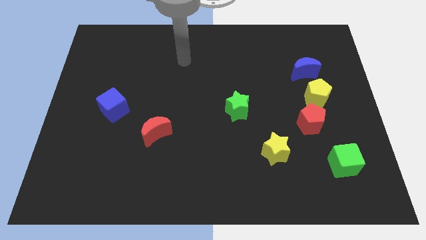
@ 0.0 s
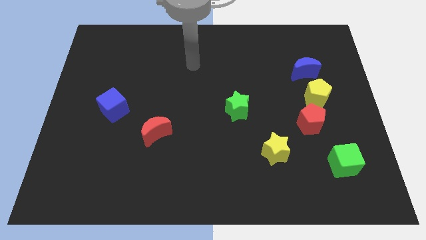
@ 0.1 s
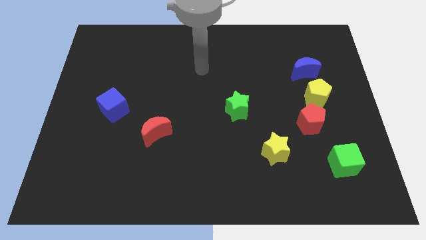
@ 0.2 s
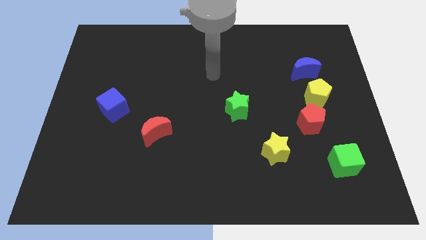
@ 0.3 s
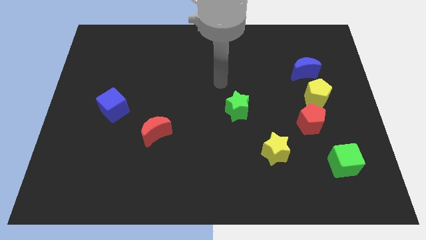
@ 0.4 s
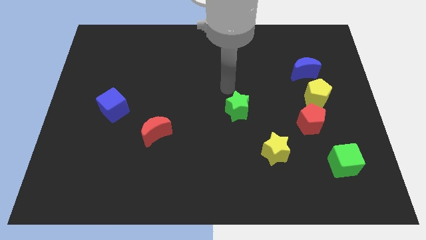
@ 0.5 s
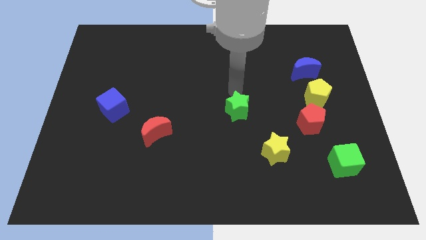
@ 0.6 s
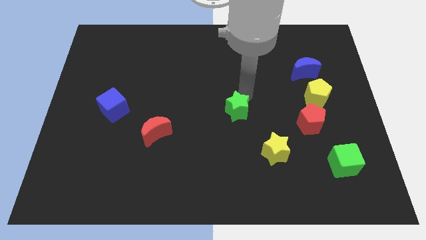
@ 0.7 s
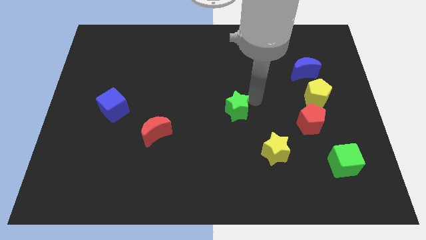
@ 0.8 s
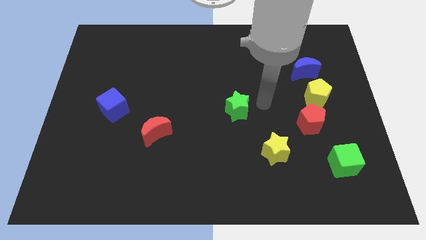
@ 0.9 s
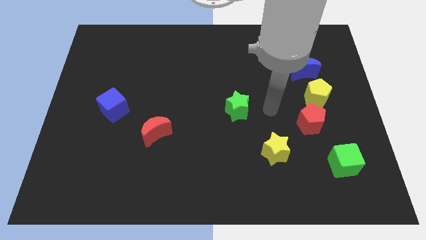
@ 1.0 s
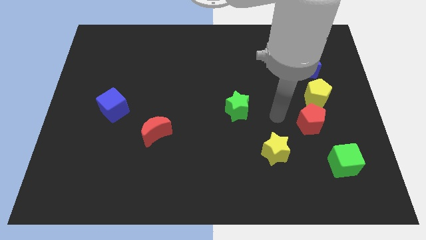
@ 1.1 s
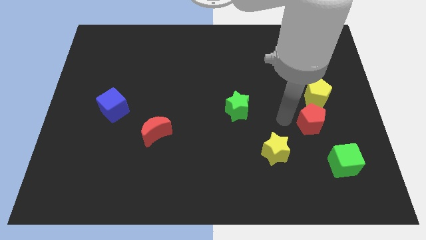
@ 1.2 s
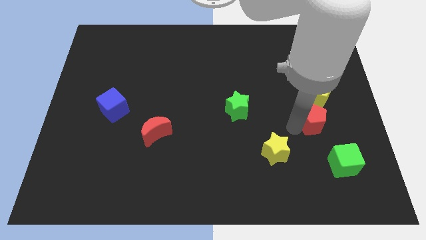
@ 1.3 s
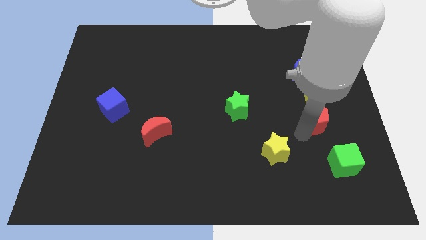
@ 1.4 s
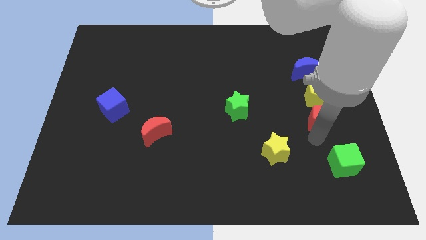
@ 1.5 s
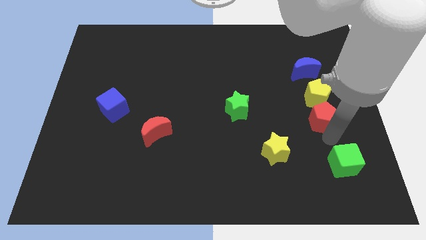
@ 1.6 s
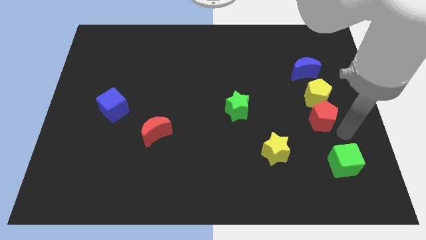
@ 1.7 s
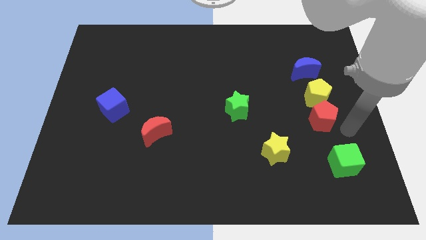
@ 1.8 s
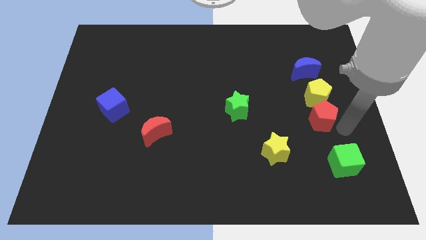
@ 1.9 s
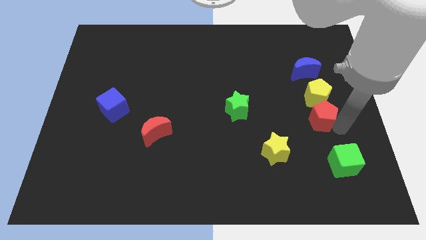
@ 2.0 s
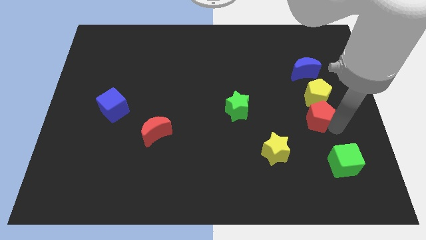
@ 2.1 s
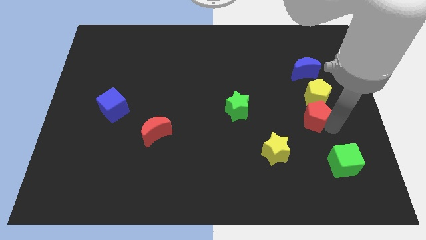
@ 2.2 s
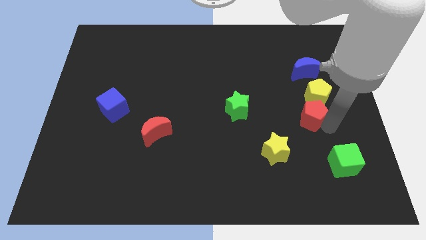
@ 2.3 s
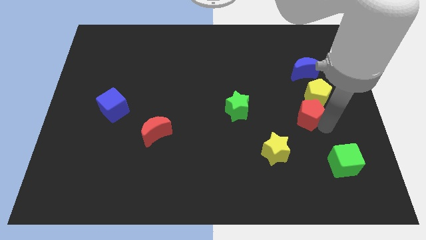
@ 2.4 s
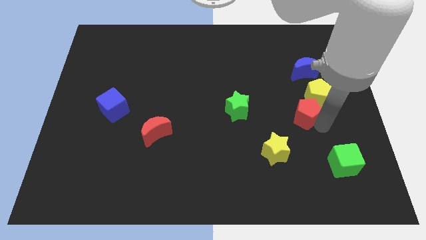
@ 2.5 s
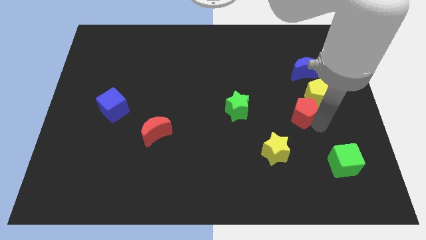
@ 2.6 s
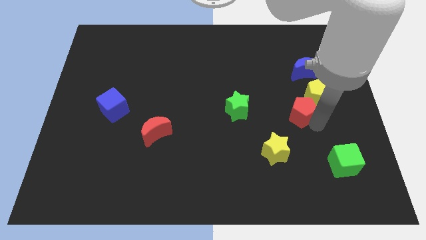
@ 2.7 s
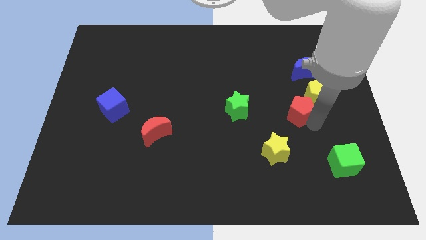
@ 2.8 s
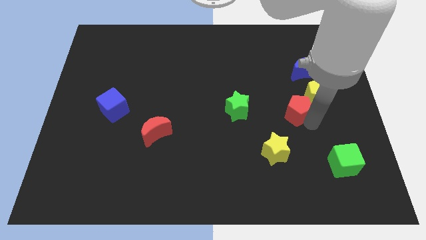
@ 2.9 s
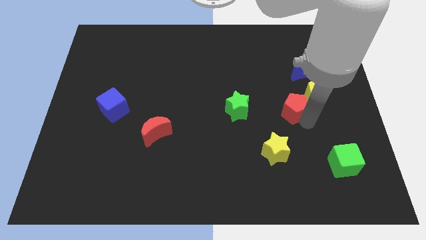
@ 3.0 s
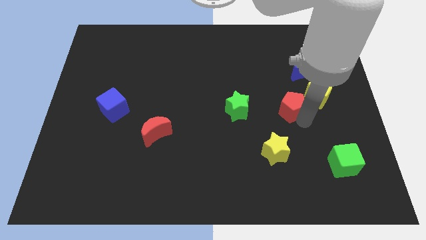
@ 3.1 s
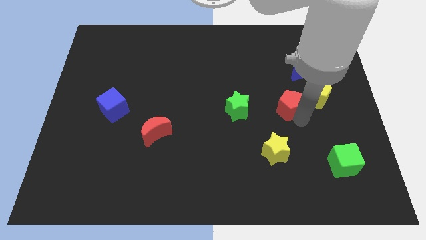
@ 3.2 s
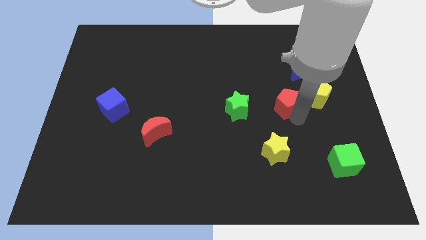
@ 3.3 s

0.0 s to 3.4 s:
move the red pentagon a little bit up and then left

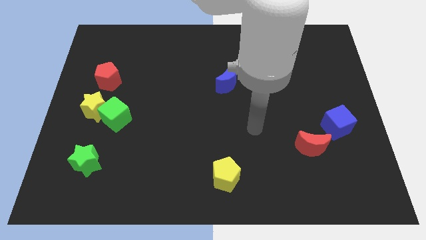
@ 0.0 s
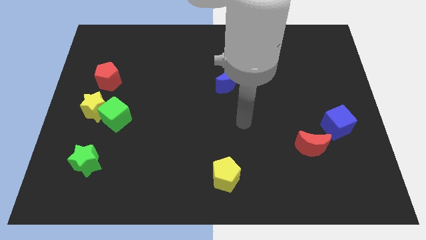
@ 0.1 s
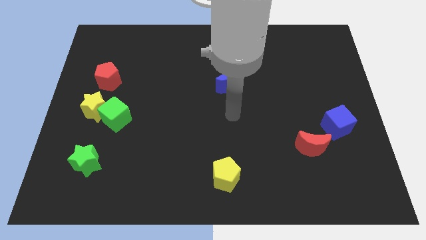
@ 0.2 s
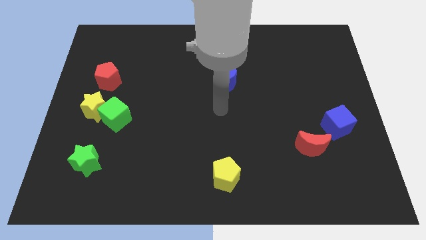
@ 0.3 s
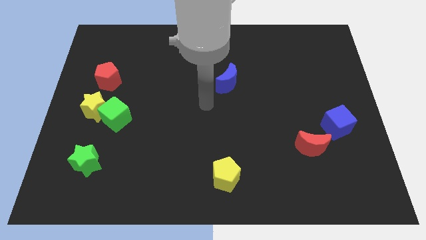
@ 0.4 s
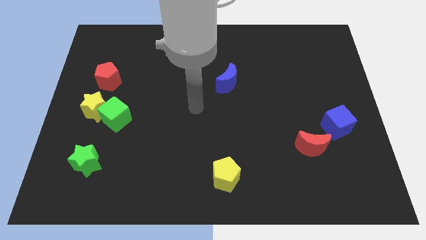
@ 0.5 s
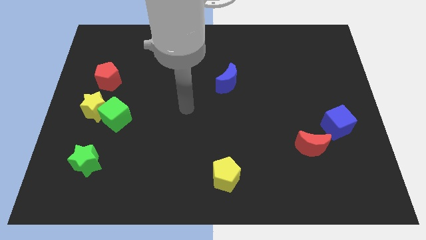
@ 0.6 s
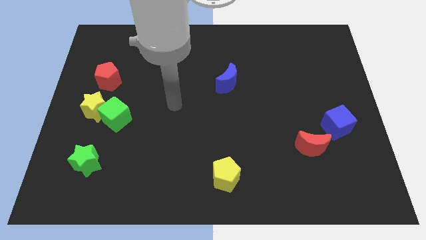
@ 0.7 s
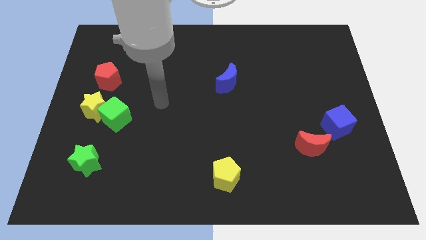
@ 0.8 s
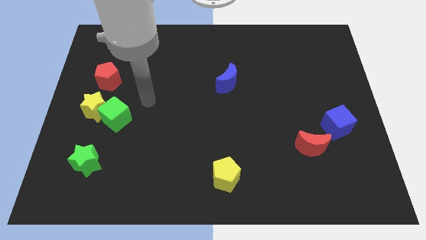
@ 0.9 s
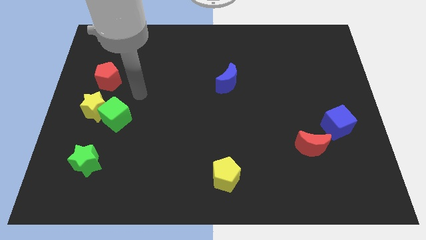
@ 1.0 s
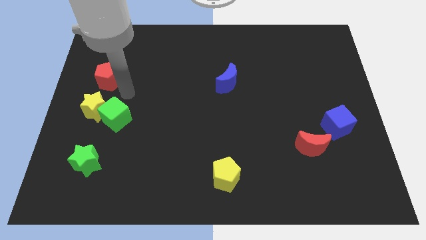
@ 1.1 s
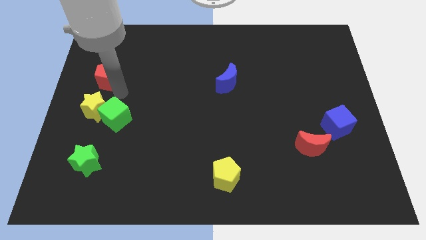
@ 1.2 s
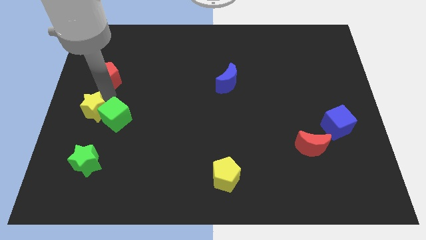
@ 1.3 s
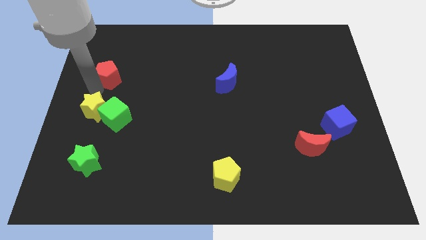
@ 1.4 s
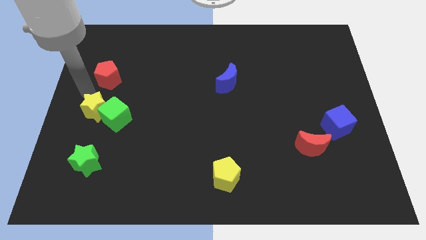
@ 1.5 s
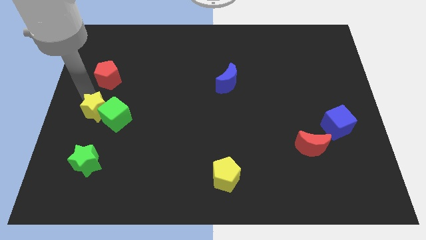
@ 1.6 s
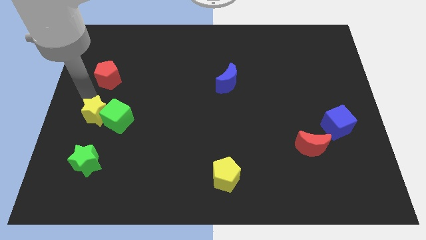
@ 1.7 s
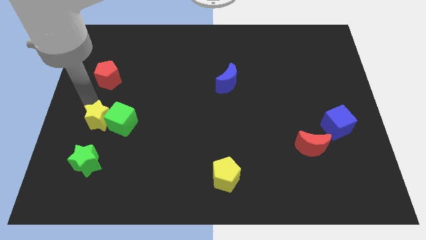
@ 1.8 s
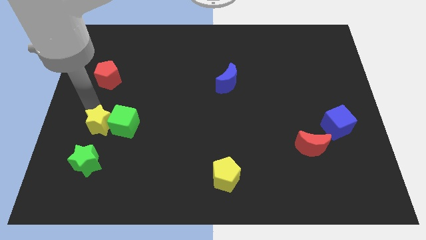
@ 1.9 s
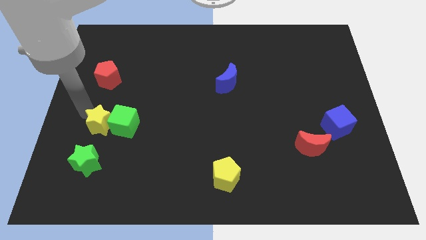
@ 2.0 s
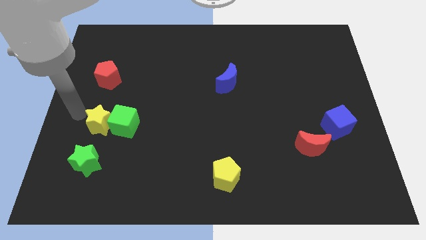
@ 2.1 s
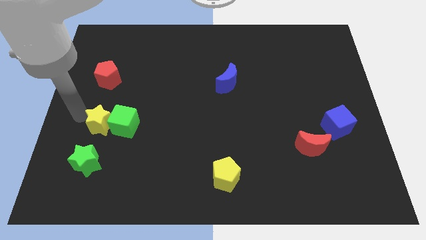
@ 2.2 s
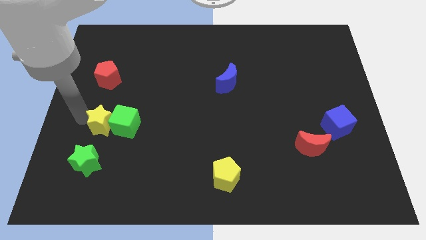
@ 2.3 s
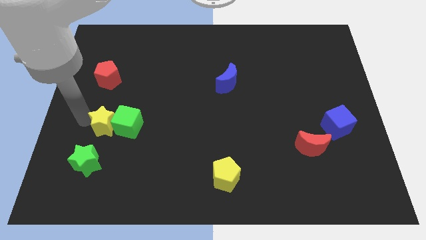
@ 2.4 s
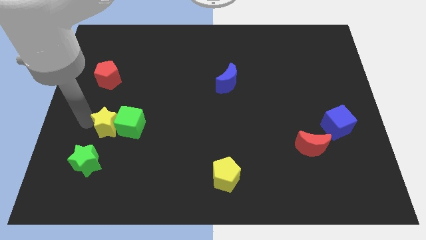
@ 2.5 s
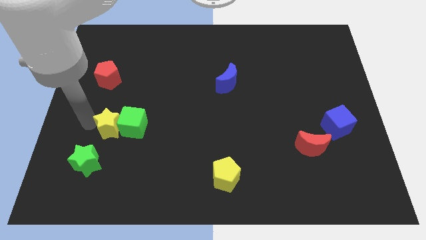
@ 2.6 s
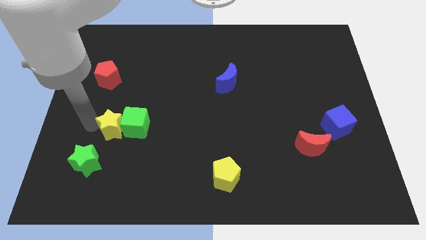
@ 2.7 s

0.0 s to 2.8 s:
slide the yellow star a little bit downwards and right diagonally

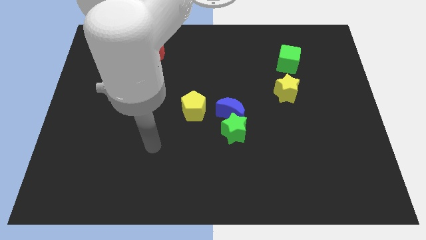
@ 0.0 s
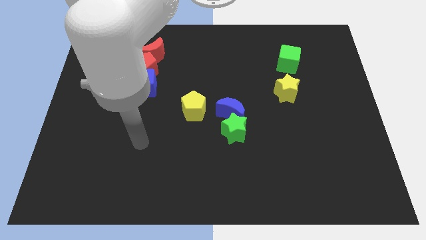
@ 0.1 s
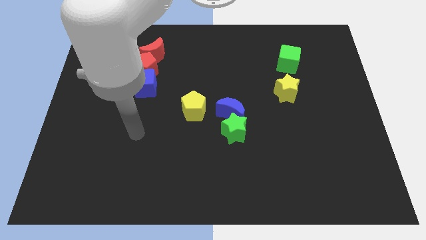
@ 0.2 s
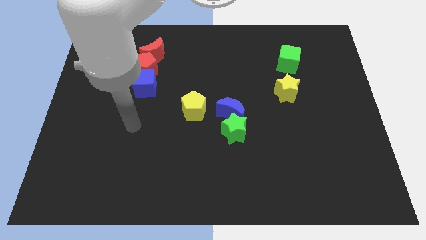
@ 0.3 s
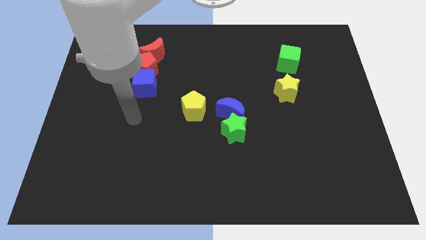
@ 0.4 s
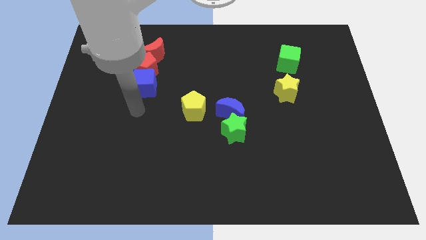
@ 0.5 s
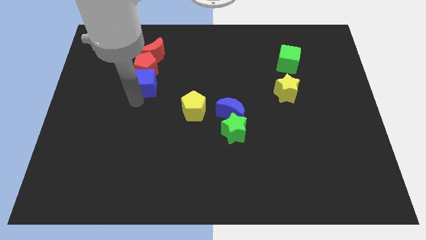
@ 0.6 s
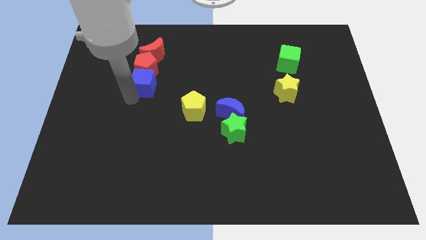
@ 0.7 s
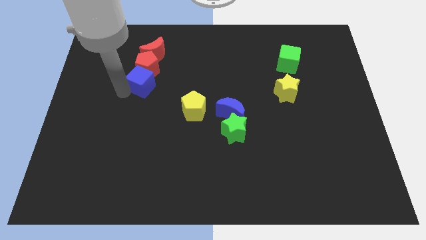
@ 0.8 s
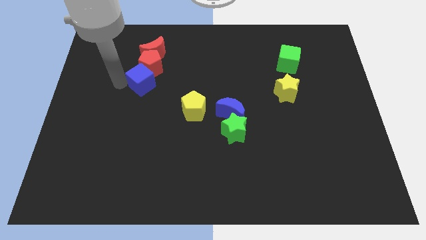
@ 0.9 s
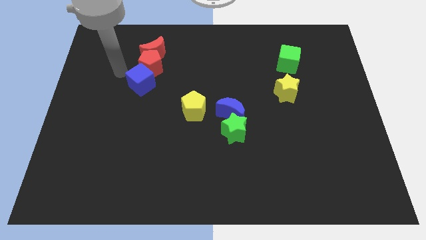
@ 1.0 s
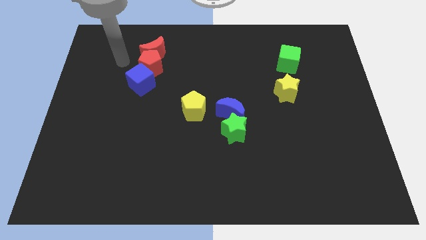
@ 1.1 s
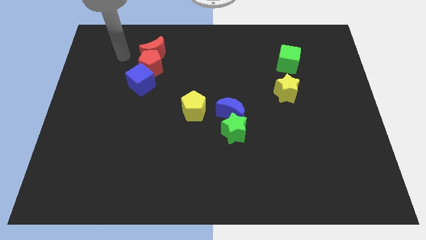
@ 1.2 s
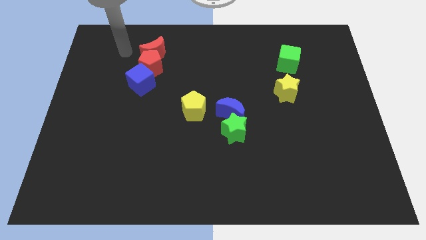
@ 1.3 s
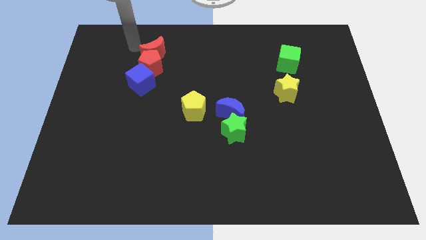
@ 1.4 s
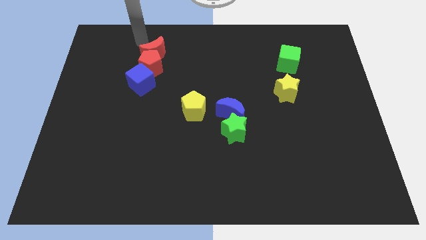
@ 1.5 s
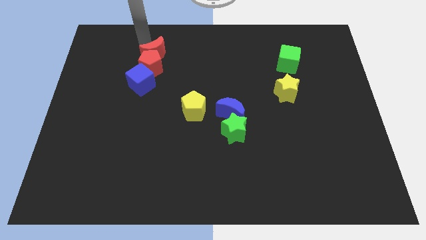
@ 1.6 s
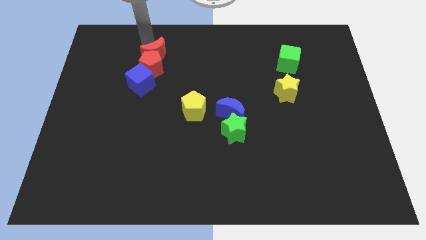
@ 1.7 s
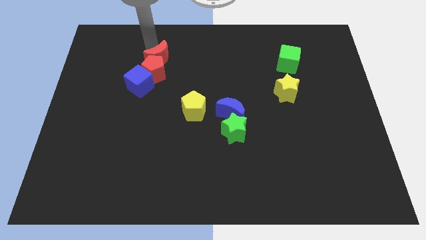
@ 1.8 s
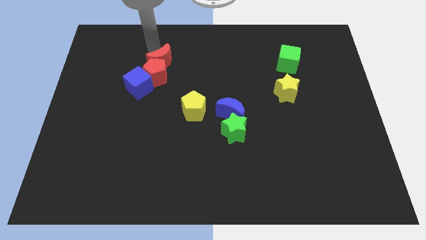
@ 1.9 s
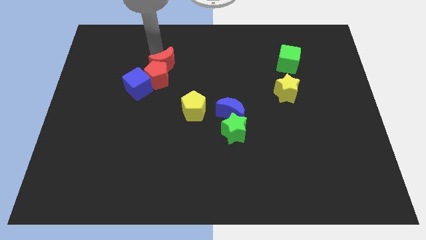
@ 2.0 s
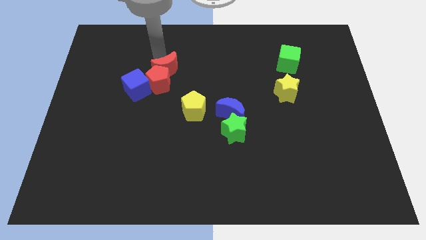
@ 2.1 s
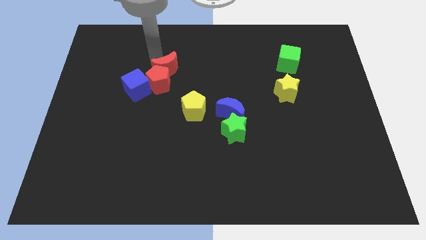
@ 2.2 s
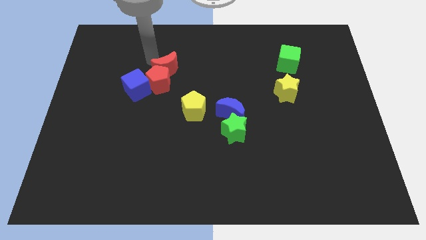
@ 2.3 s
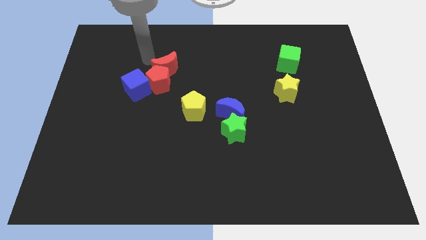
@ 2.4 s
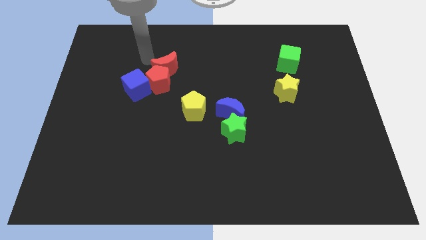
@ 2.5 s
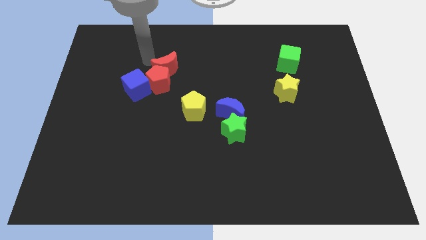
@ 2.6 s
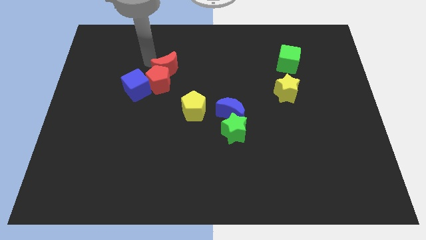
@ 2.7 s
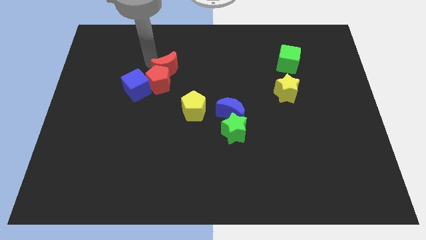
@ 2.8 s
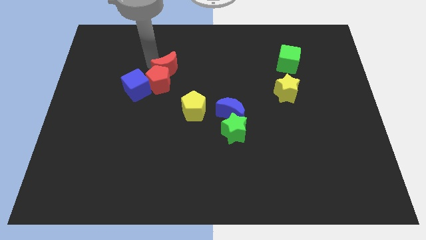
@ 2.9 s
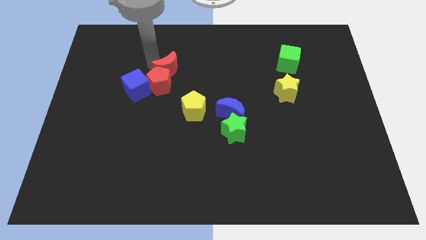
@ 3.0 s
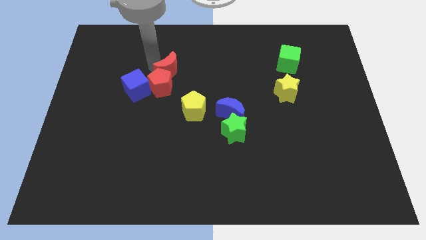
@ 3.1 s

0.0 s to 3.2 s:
slightly slide the red moon downwards and to the right diagonally
